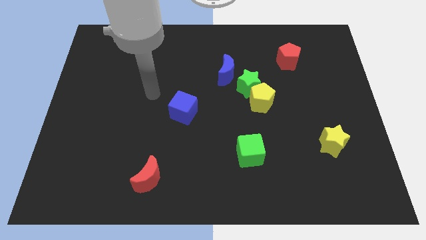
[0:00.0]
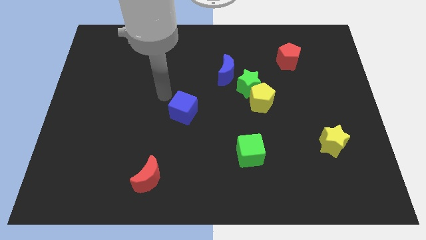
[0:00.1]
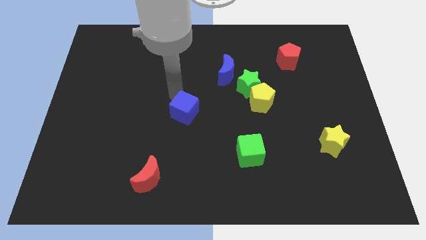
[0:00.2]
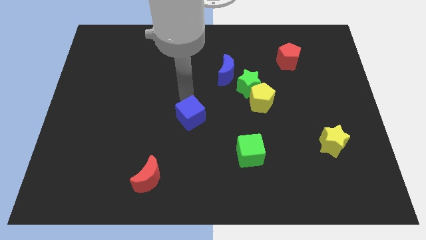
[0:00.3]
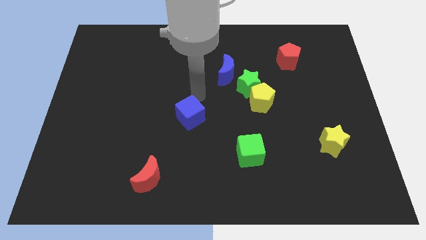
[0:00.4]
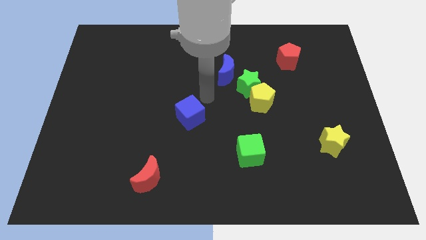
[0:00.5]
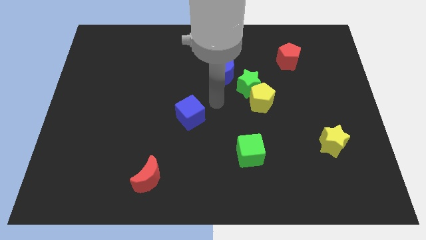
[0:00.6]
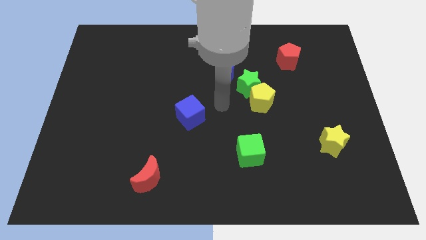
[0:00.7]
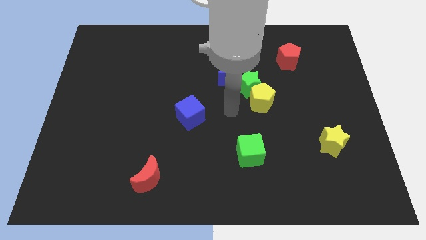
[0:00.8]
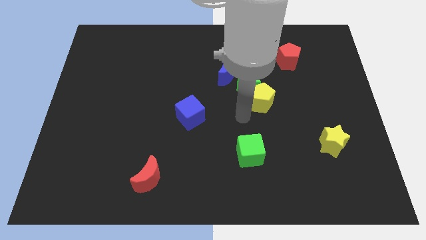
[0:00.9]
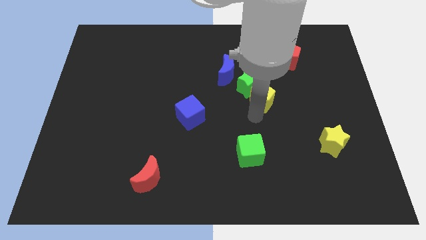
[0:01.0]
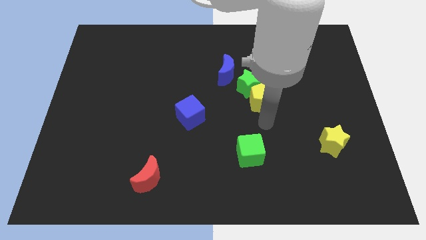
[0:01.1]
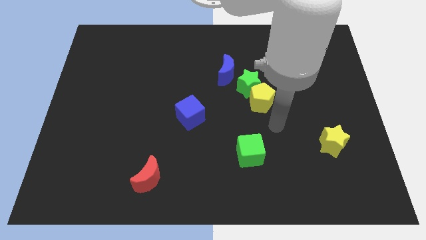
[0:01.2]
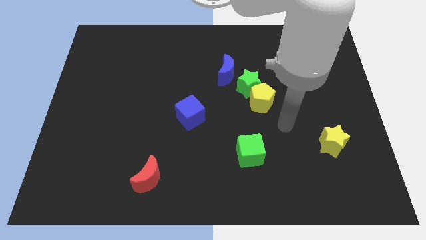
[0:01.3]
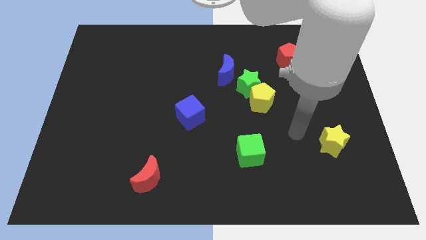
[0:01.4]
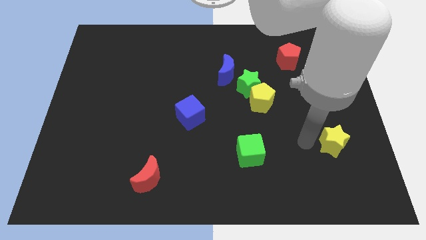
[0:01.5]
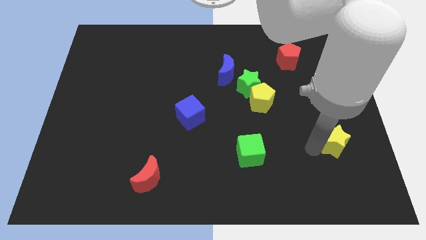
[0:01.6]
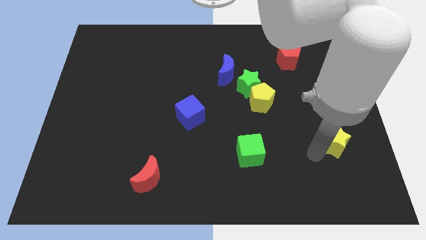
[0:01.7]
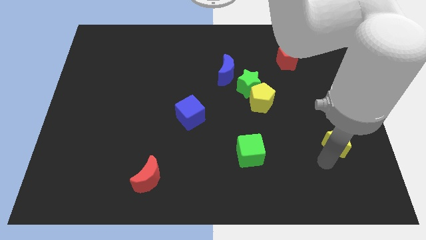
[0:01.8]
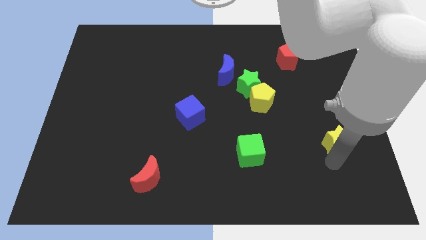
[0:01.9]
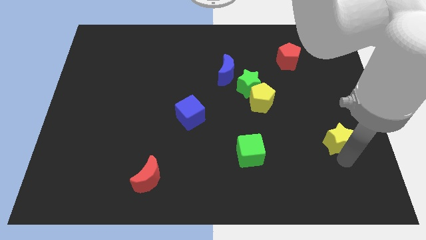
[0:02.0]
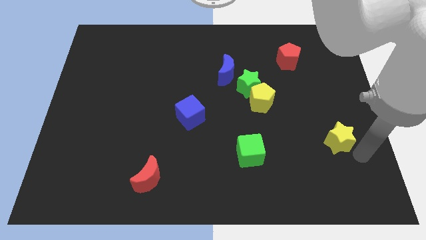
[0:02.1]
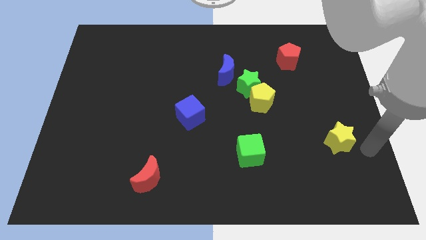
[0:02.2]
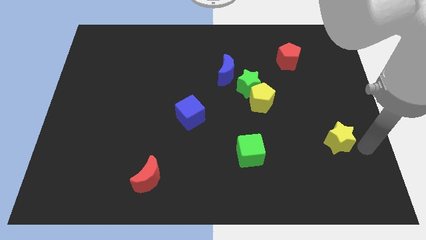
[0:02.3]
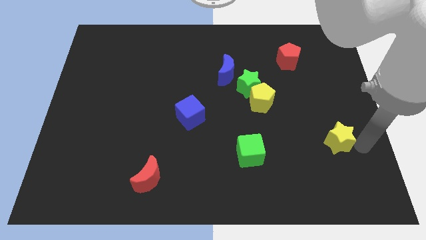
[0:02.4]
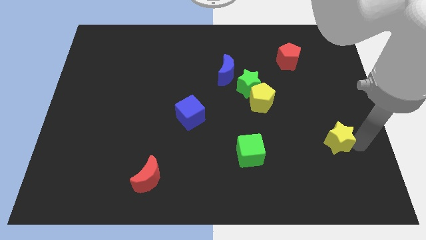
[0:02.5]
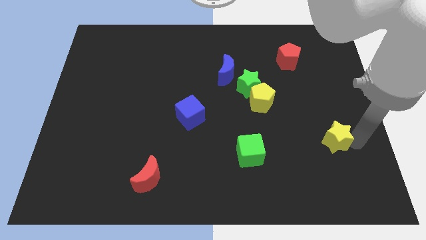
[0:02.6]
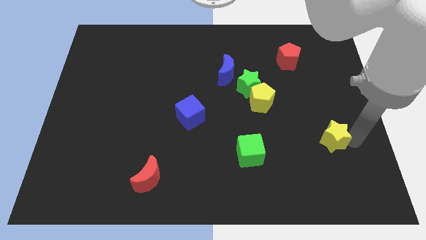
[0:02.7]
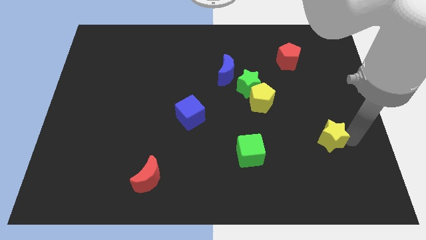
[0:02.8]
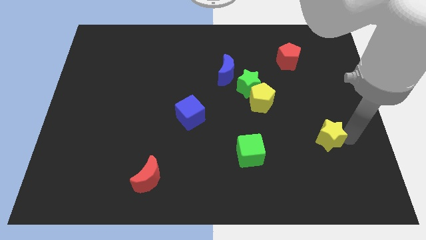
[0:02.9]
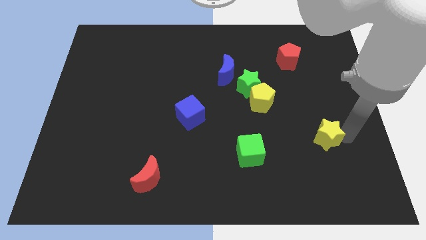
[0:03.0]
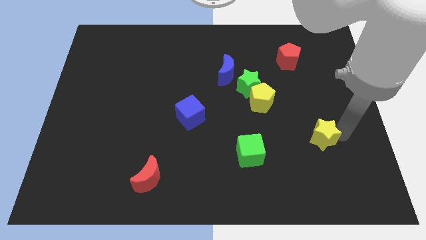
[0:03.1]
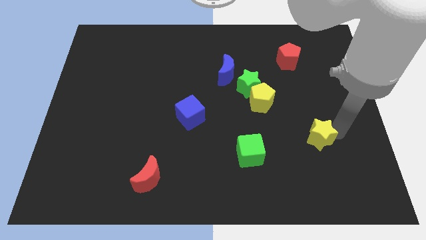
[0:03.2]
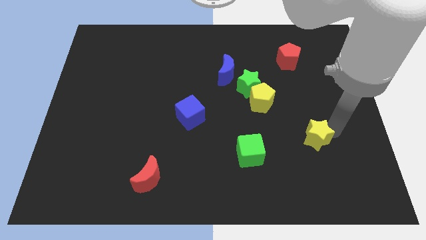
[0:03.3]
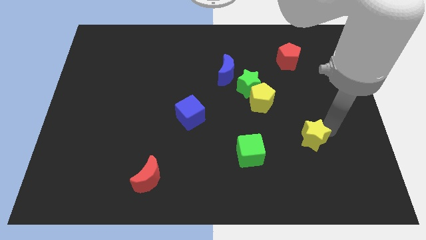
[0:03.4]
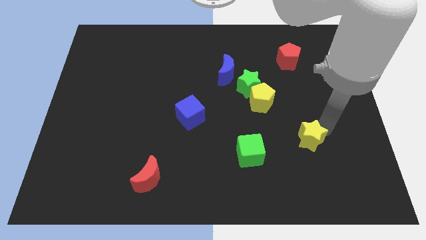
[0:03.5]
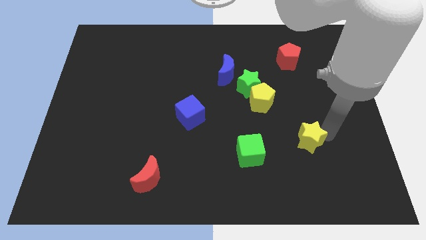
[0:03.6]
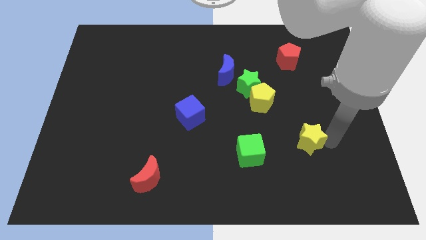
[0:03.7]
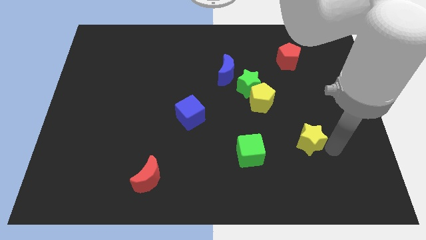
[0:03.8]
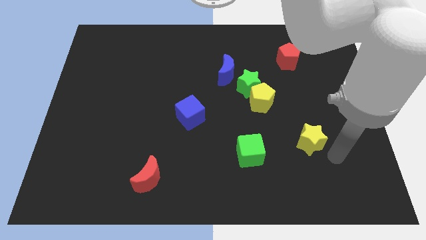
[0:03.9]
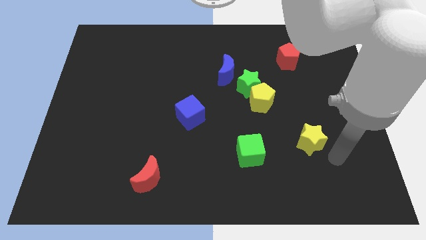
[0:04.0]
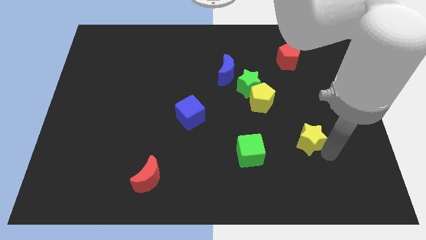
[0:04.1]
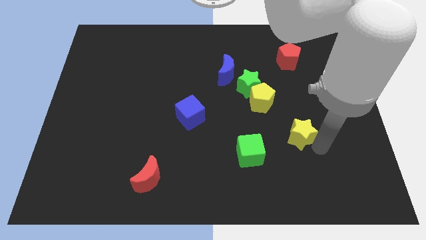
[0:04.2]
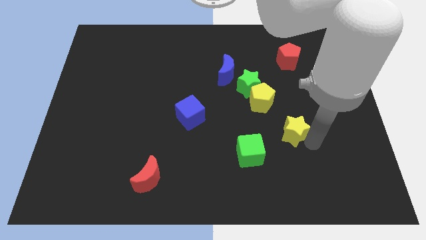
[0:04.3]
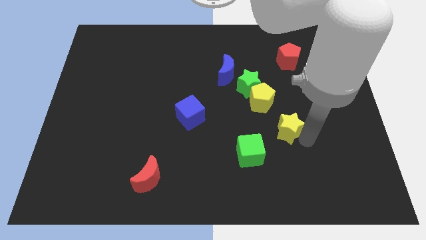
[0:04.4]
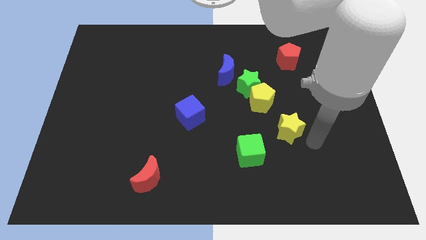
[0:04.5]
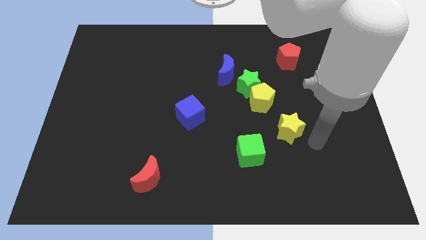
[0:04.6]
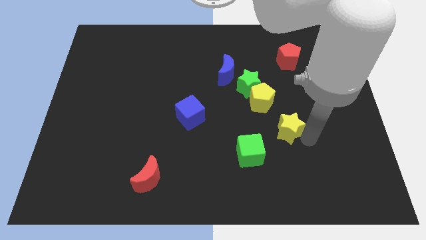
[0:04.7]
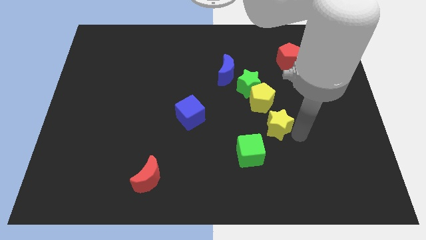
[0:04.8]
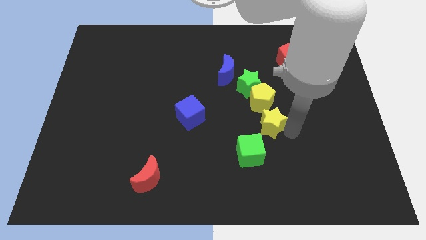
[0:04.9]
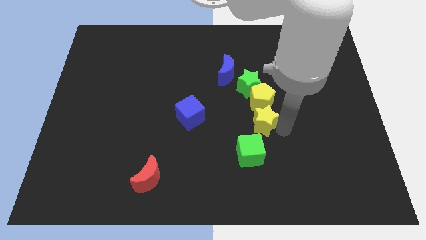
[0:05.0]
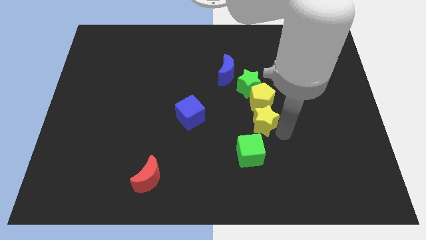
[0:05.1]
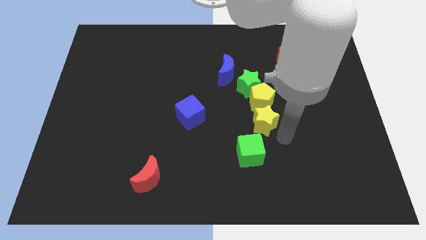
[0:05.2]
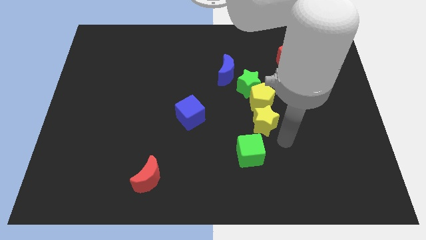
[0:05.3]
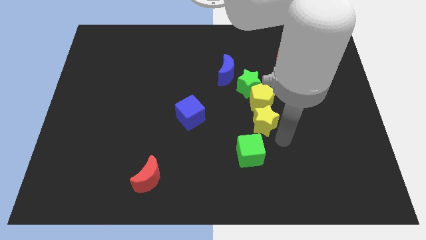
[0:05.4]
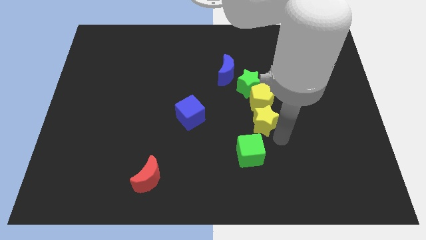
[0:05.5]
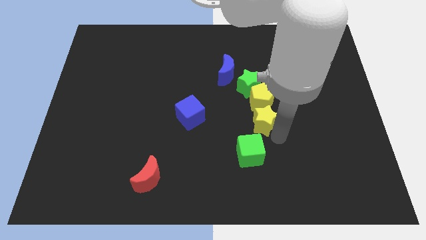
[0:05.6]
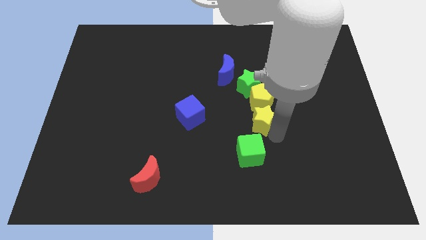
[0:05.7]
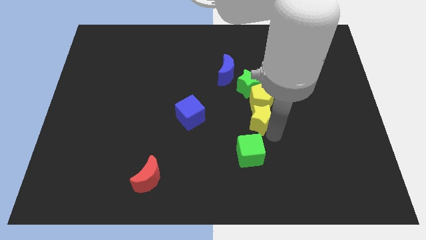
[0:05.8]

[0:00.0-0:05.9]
put the yellow star to the middle of the board

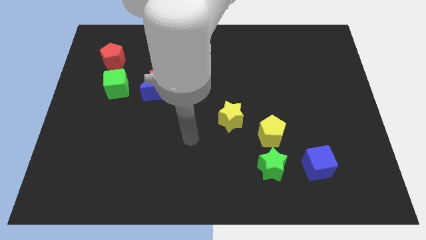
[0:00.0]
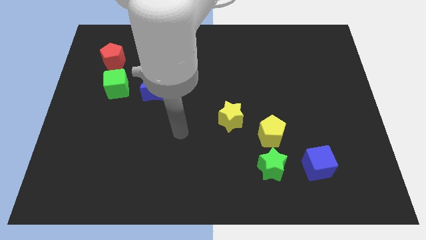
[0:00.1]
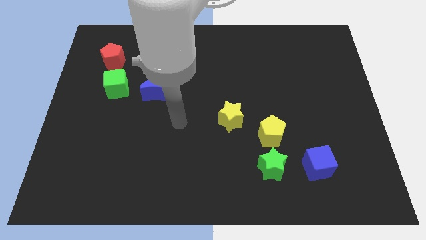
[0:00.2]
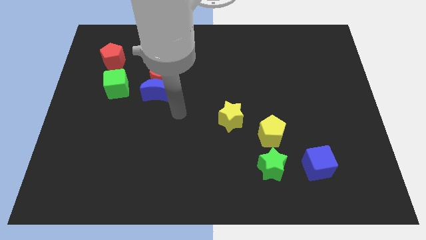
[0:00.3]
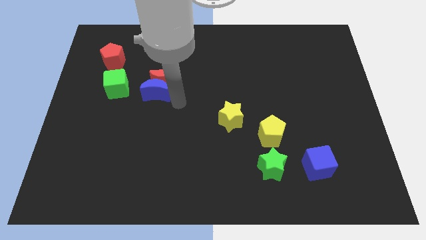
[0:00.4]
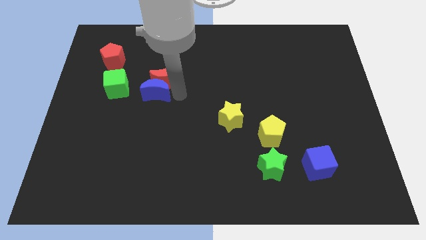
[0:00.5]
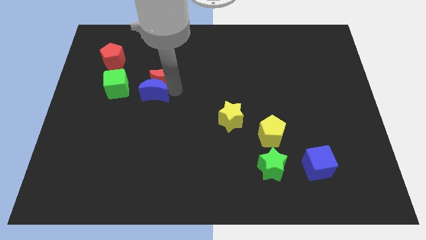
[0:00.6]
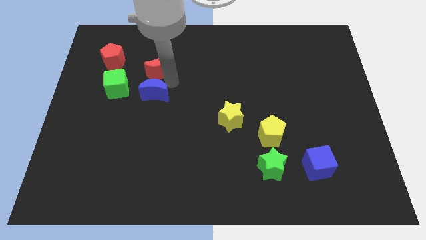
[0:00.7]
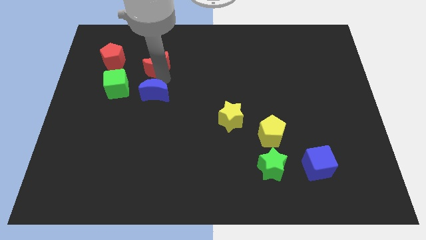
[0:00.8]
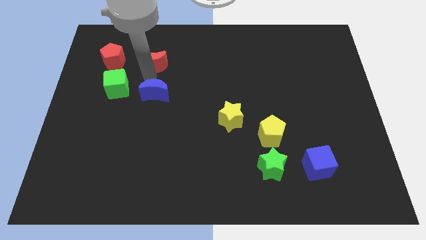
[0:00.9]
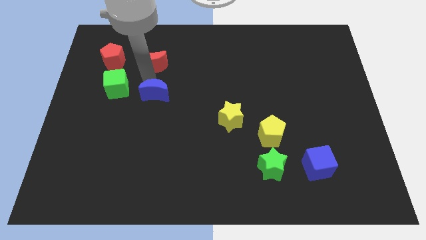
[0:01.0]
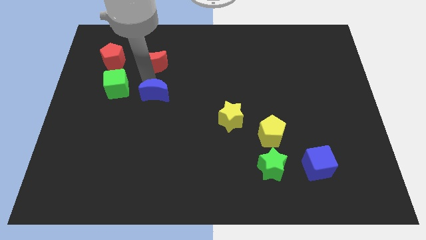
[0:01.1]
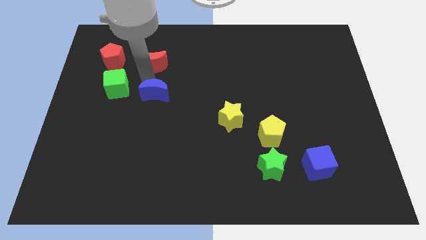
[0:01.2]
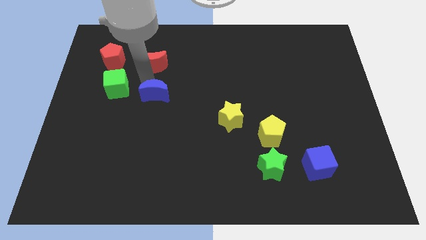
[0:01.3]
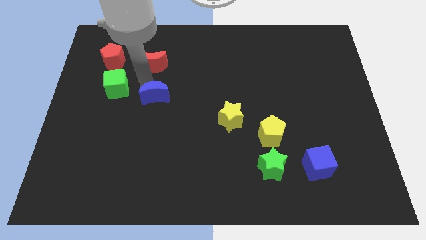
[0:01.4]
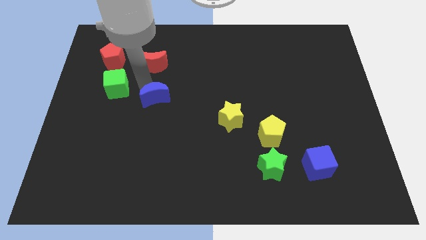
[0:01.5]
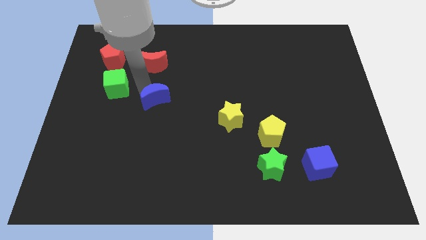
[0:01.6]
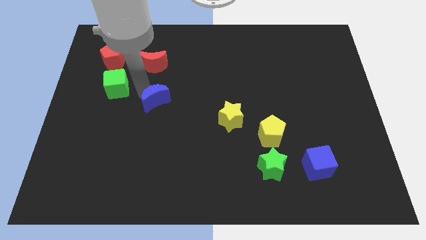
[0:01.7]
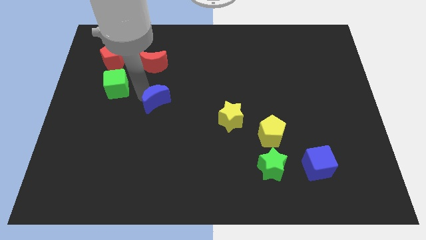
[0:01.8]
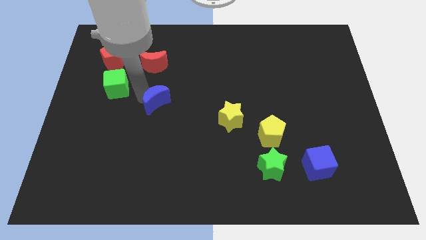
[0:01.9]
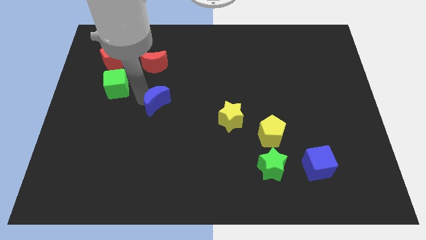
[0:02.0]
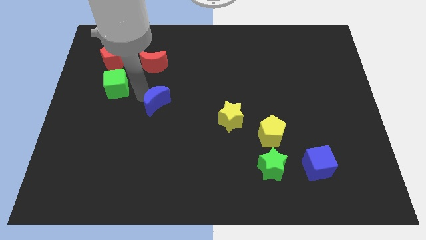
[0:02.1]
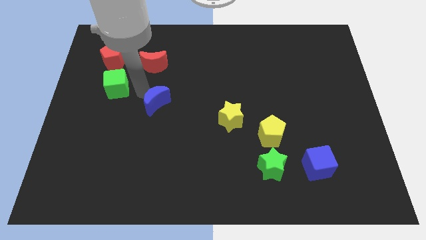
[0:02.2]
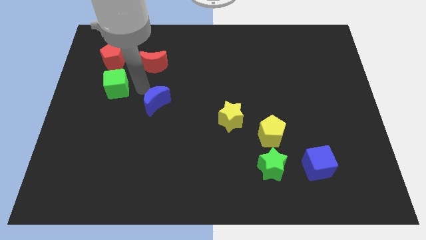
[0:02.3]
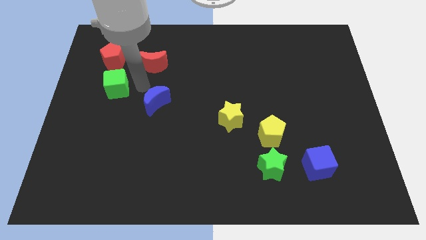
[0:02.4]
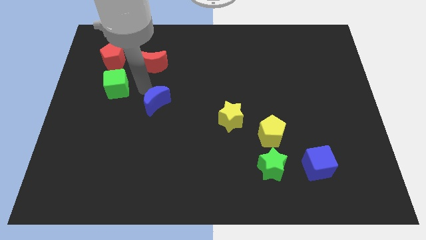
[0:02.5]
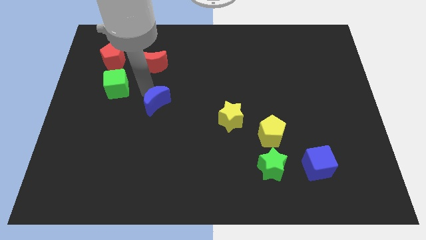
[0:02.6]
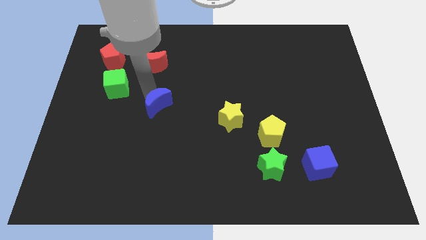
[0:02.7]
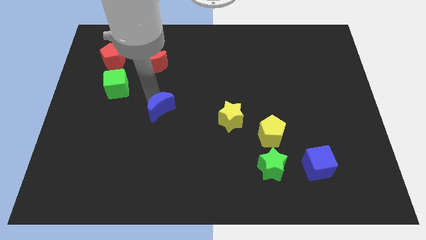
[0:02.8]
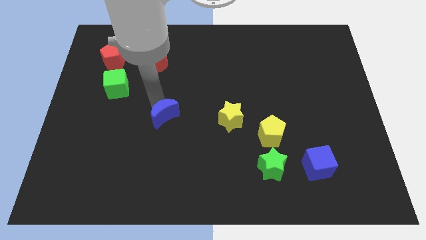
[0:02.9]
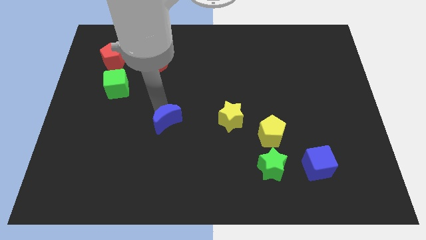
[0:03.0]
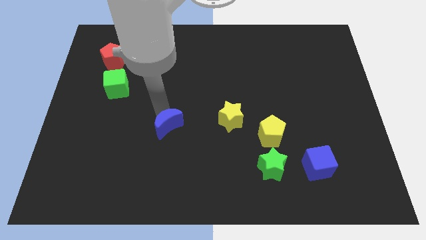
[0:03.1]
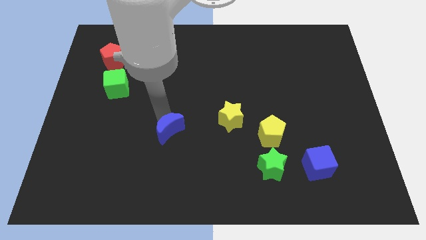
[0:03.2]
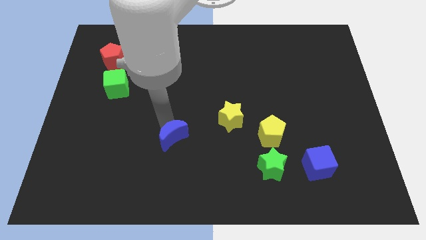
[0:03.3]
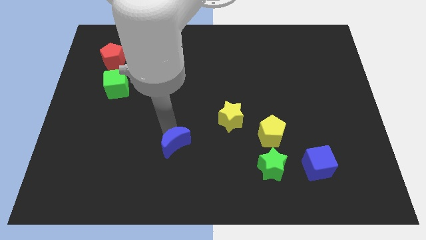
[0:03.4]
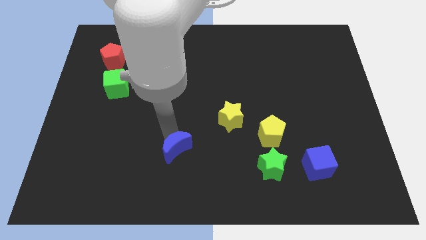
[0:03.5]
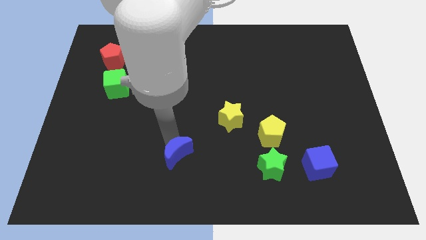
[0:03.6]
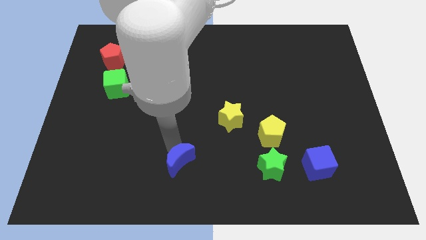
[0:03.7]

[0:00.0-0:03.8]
move the blue moon to the bottom
